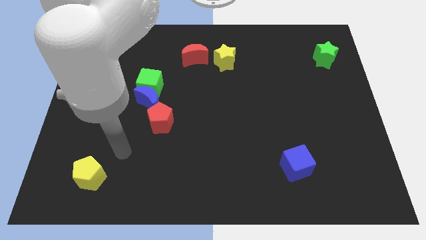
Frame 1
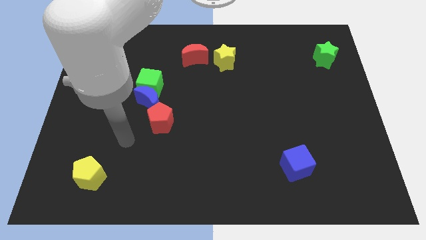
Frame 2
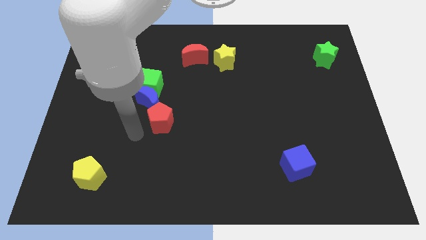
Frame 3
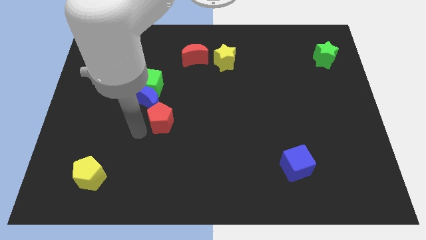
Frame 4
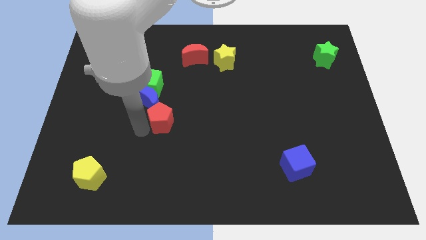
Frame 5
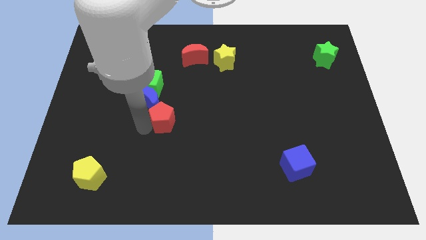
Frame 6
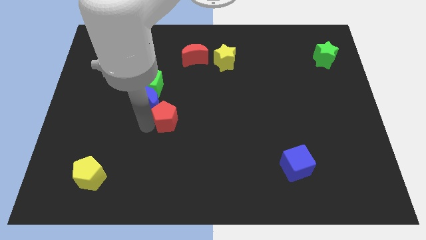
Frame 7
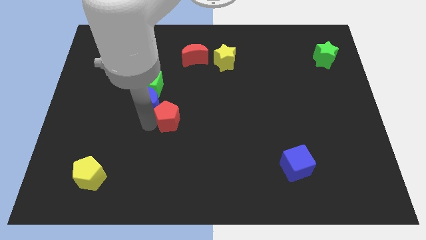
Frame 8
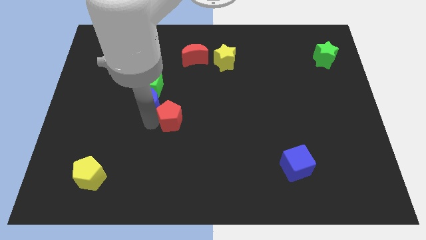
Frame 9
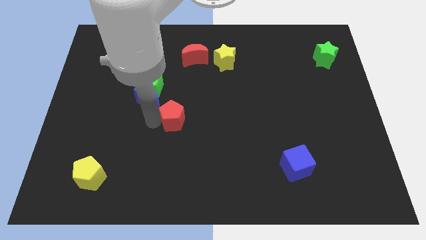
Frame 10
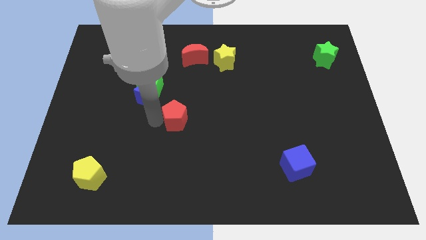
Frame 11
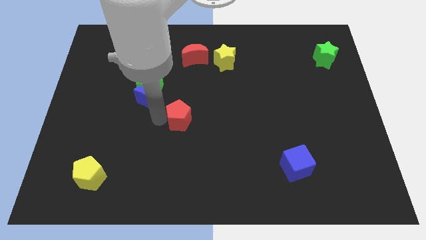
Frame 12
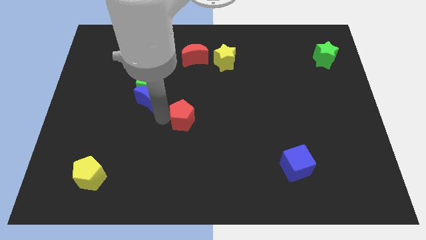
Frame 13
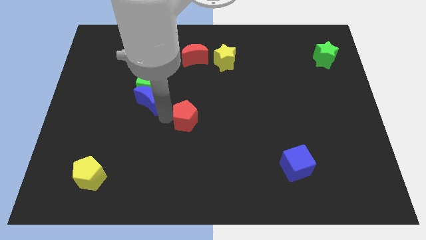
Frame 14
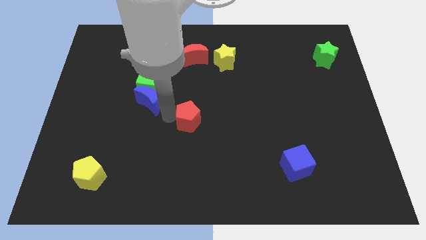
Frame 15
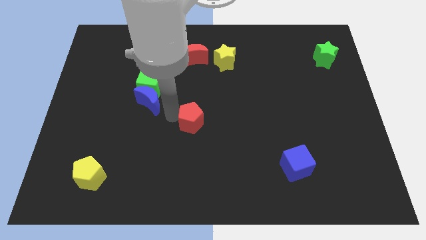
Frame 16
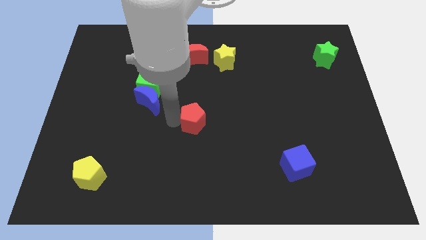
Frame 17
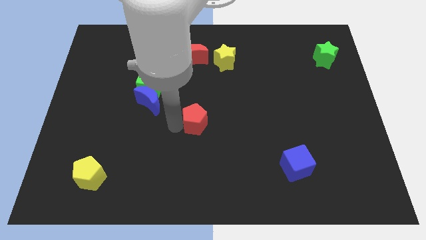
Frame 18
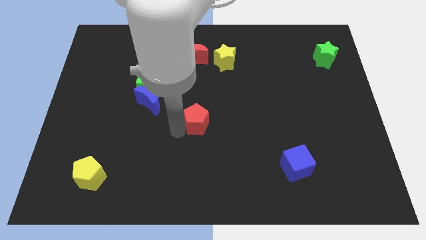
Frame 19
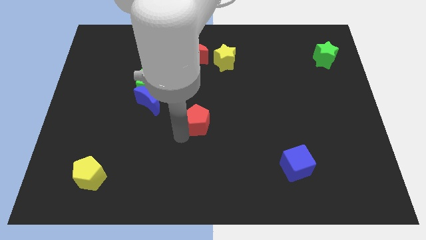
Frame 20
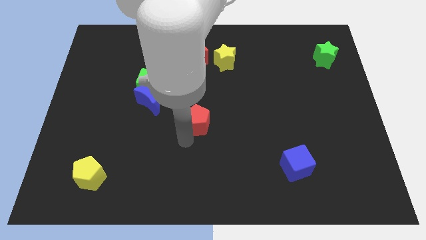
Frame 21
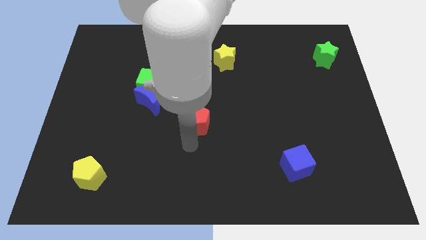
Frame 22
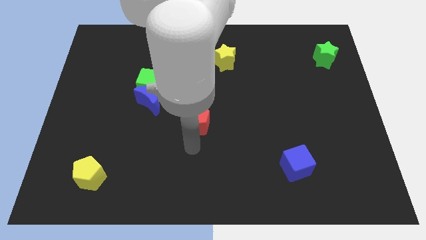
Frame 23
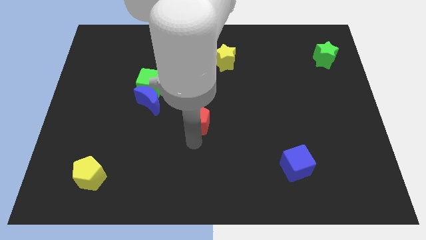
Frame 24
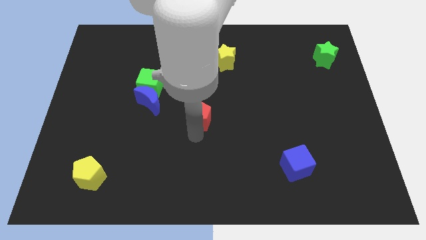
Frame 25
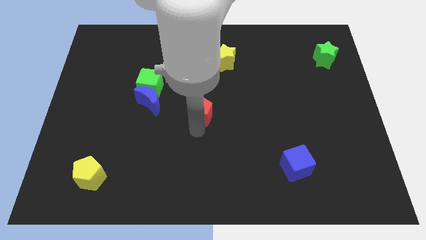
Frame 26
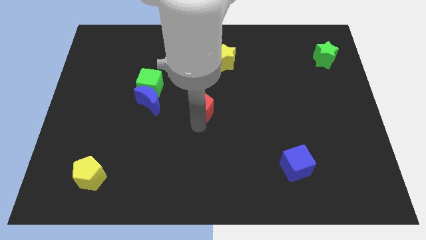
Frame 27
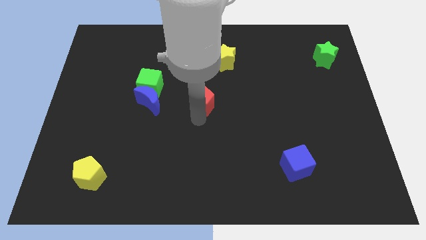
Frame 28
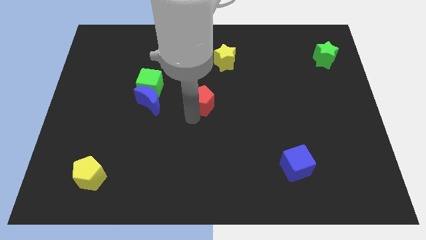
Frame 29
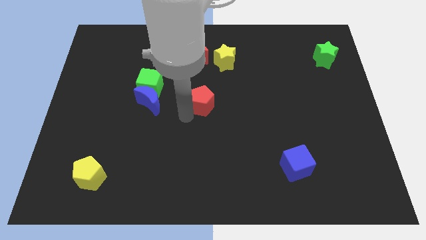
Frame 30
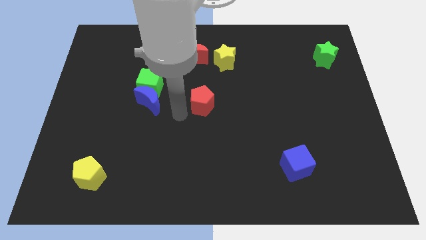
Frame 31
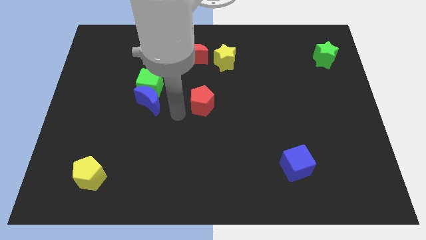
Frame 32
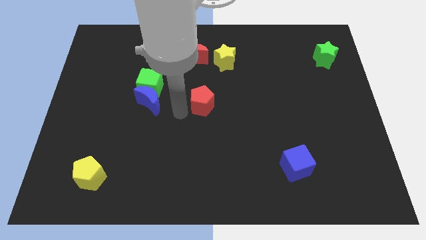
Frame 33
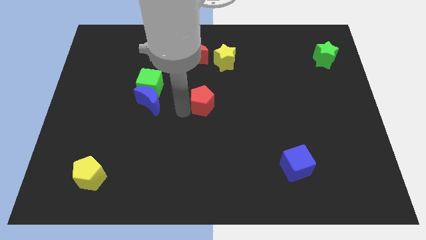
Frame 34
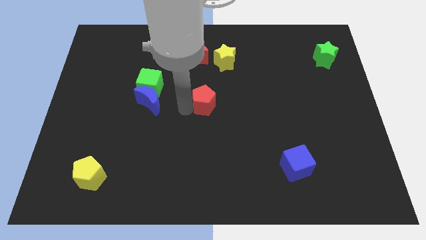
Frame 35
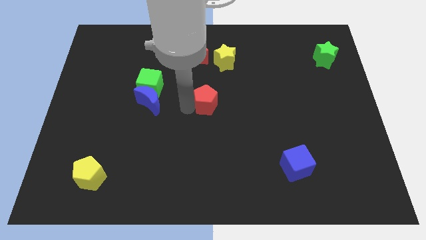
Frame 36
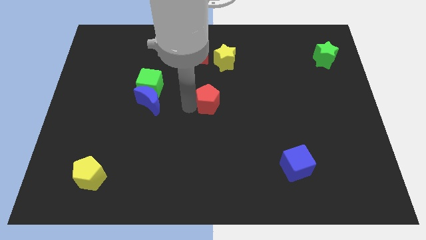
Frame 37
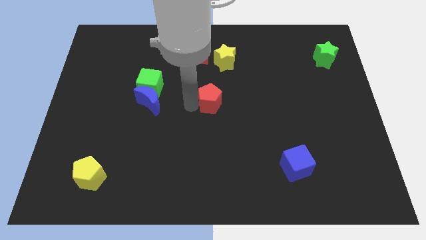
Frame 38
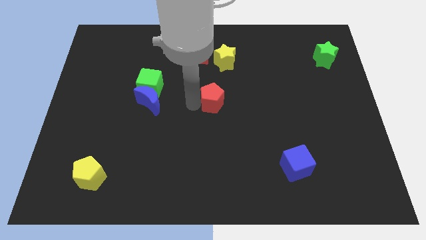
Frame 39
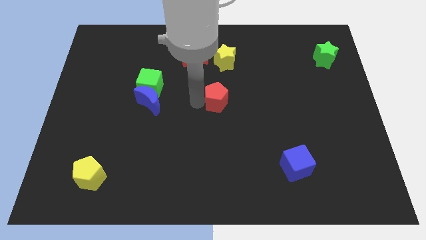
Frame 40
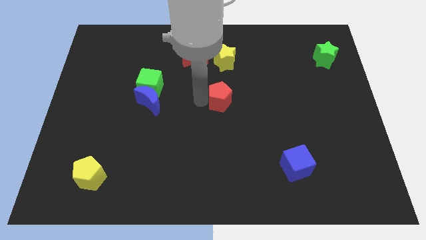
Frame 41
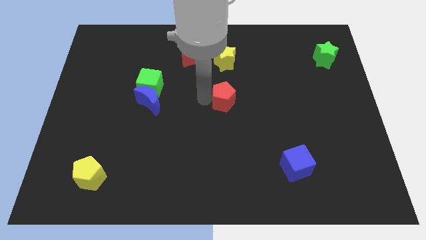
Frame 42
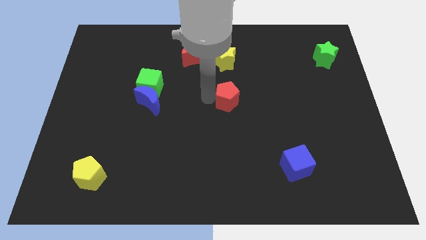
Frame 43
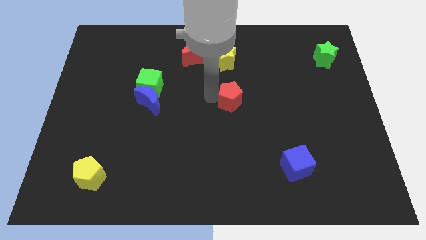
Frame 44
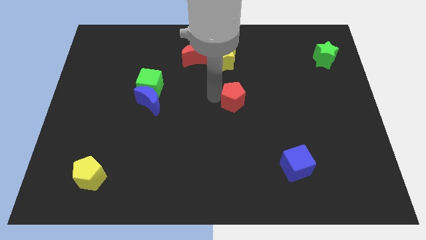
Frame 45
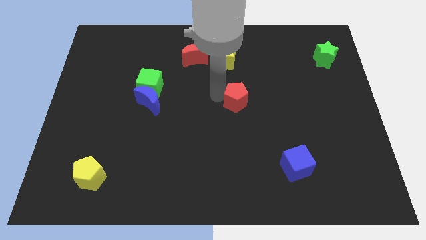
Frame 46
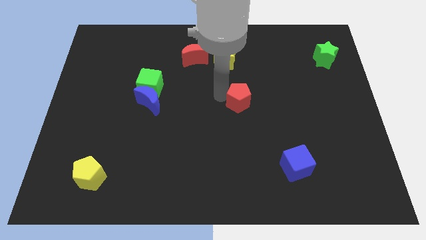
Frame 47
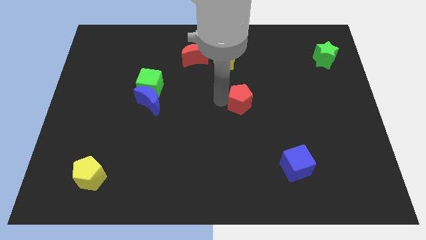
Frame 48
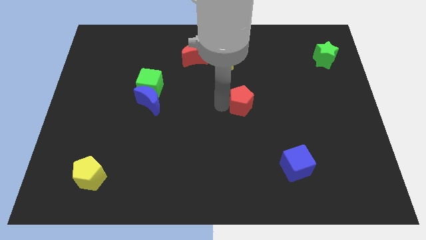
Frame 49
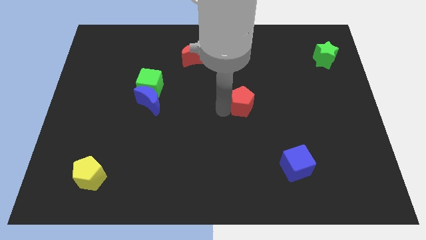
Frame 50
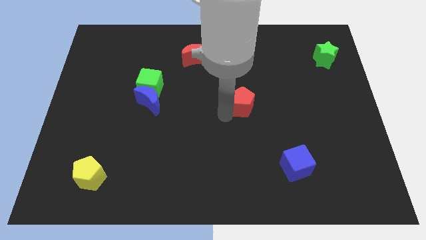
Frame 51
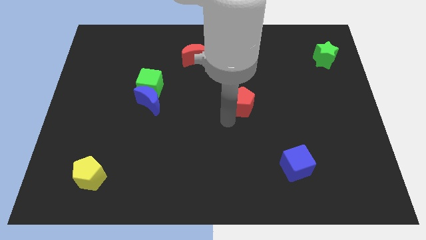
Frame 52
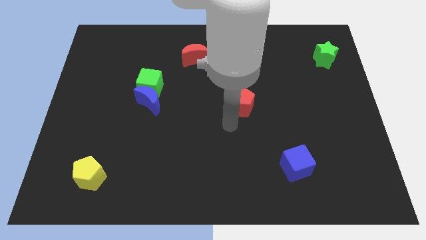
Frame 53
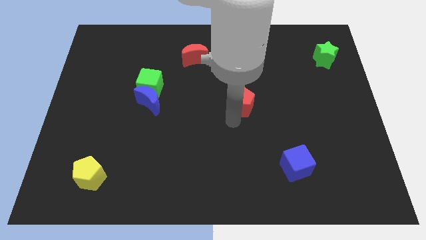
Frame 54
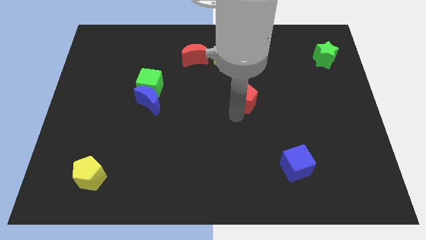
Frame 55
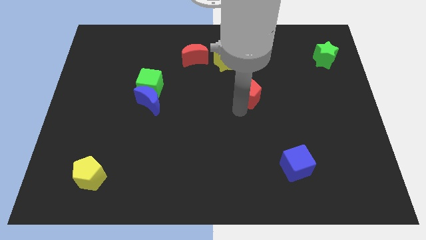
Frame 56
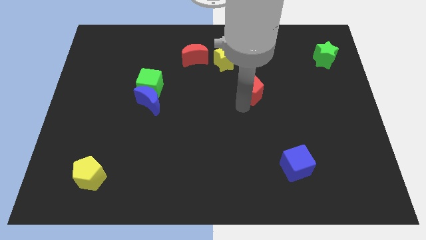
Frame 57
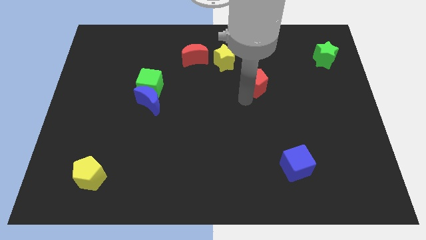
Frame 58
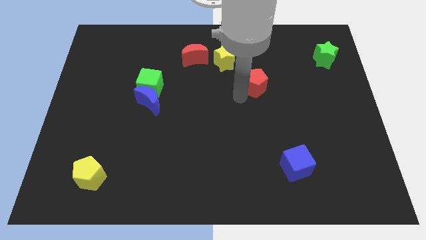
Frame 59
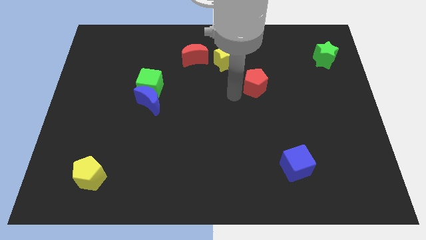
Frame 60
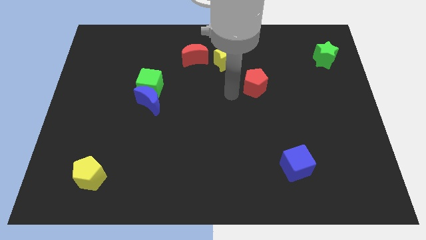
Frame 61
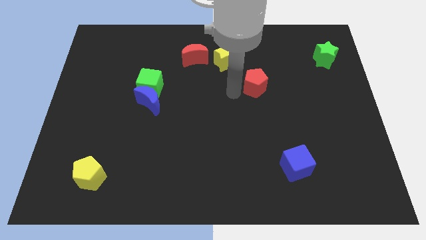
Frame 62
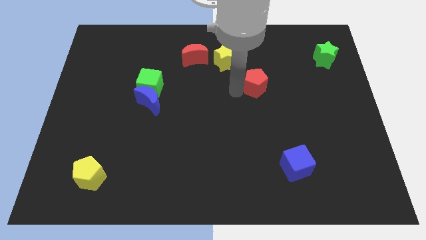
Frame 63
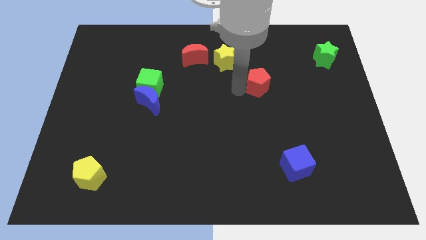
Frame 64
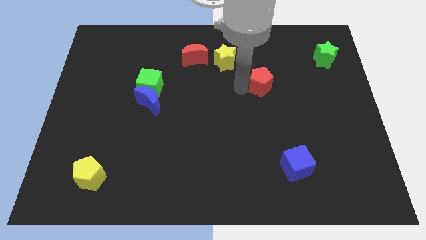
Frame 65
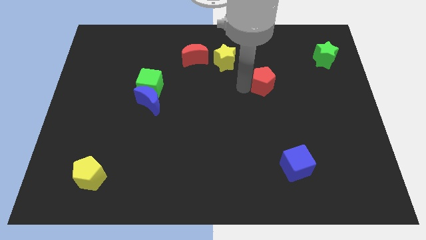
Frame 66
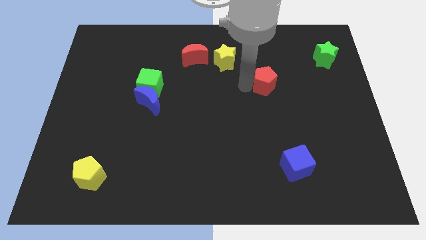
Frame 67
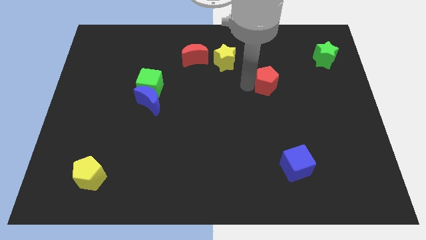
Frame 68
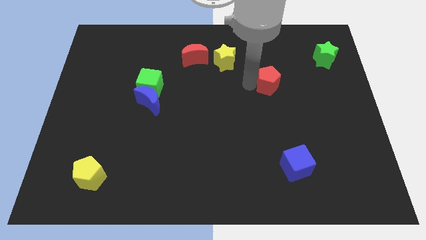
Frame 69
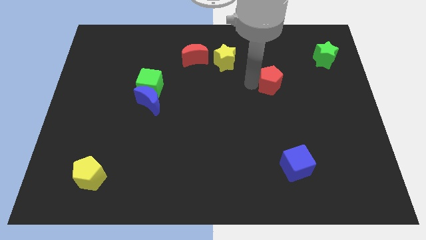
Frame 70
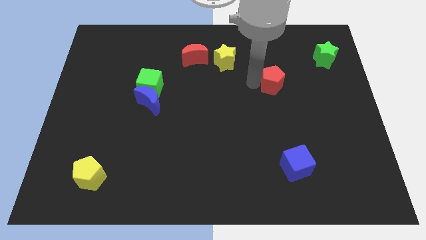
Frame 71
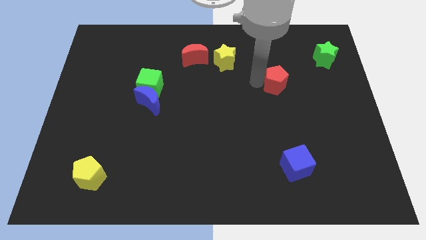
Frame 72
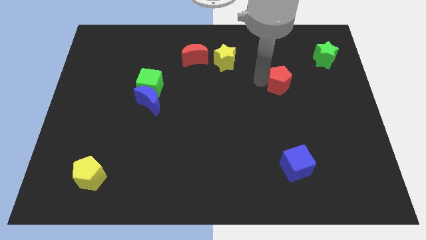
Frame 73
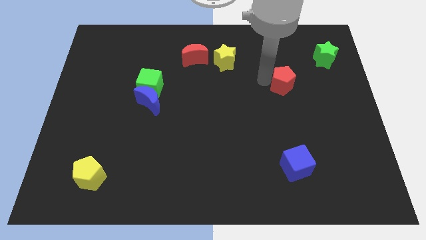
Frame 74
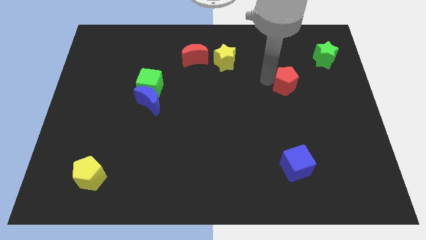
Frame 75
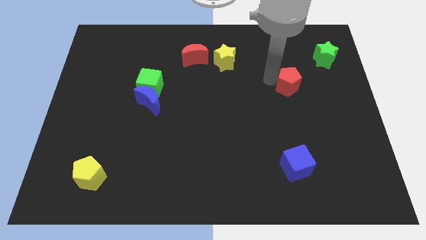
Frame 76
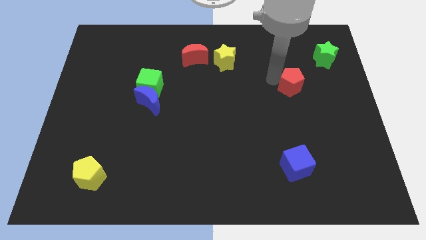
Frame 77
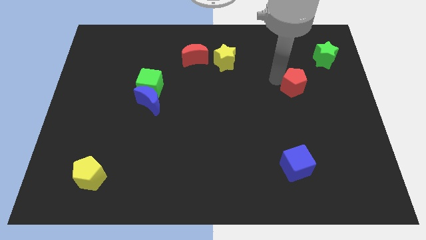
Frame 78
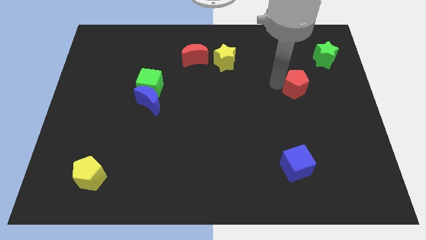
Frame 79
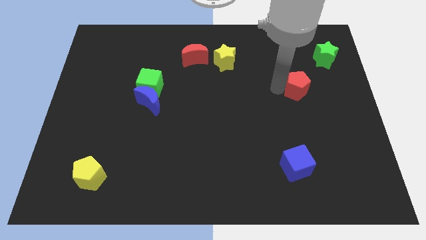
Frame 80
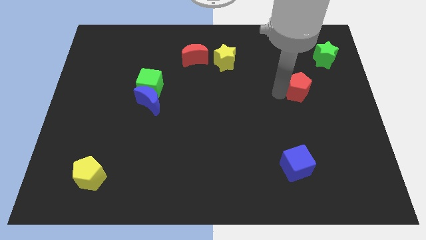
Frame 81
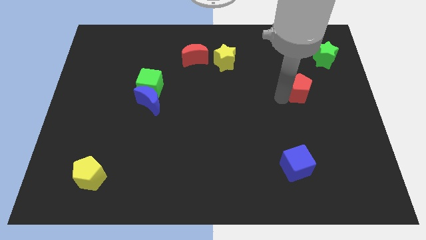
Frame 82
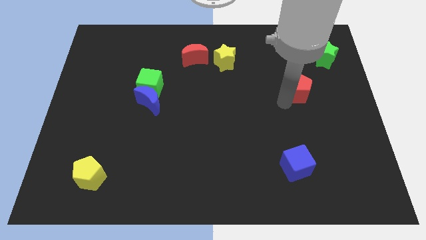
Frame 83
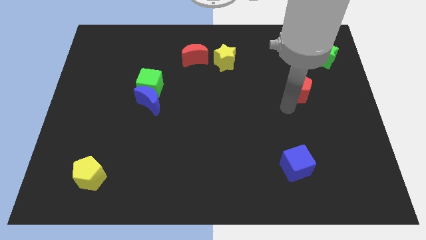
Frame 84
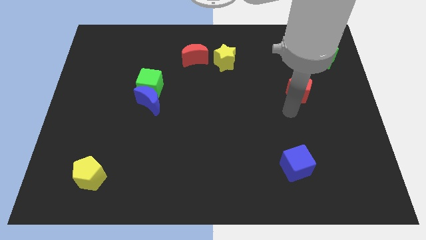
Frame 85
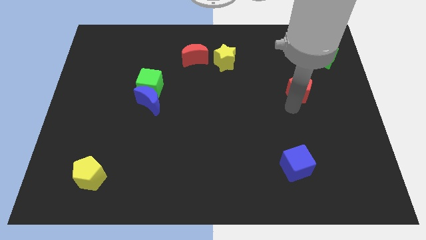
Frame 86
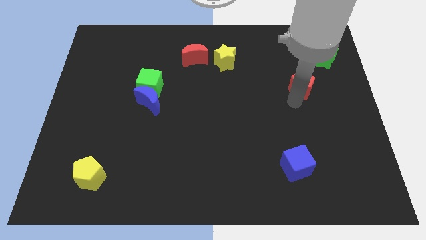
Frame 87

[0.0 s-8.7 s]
slide the red pentagon to the bottom left of the green star
